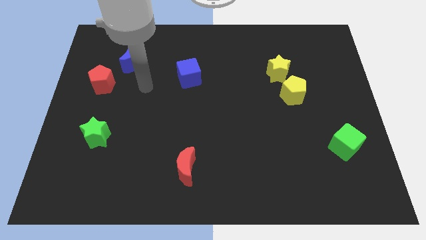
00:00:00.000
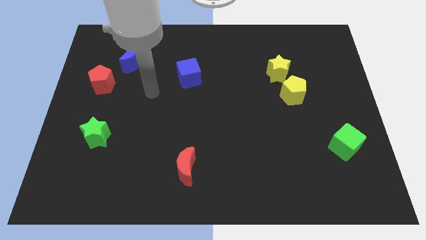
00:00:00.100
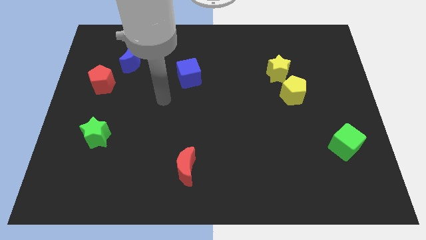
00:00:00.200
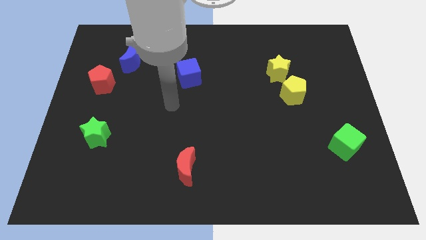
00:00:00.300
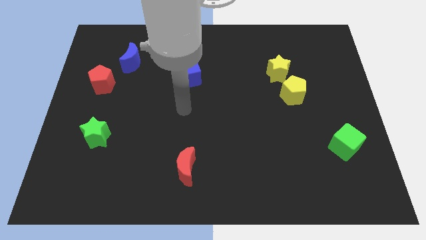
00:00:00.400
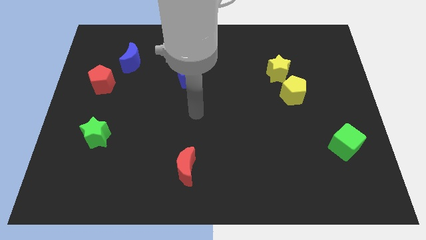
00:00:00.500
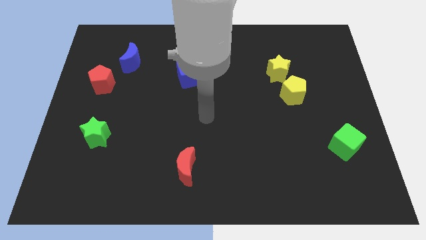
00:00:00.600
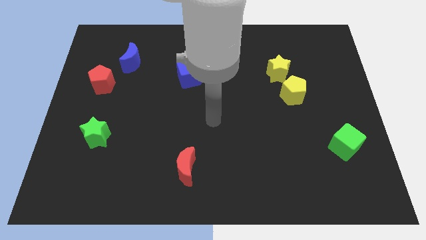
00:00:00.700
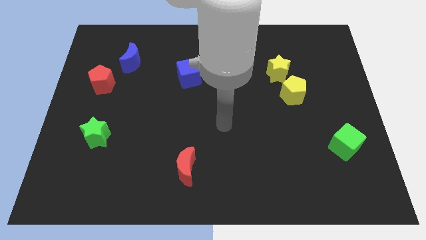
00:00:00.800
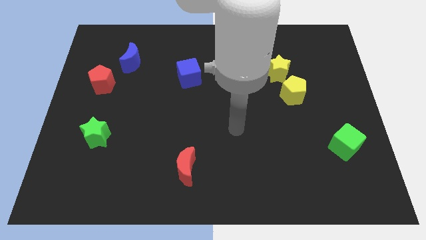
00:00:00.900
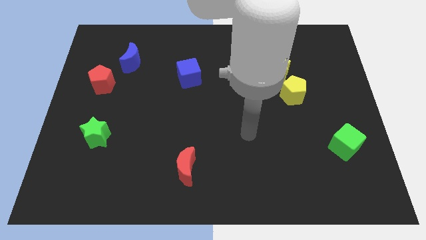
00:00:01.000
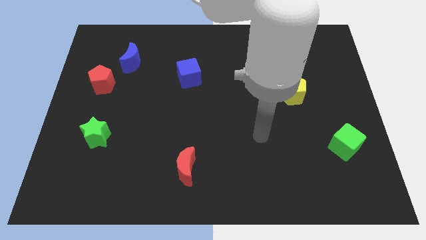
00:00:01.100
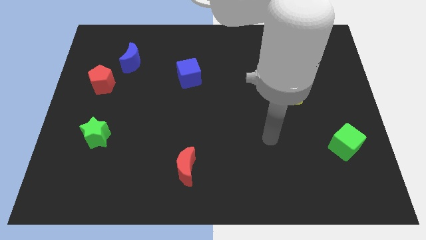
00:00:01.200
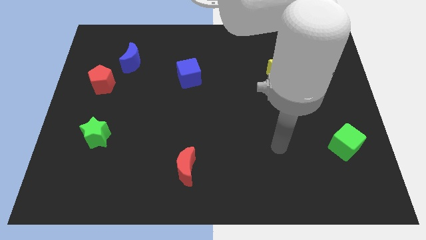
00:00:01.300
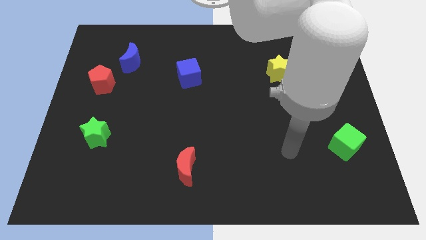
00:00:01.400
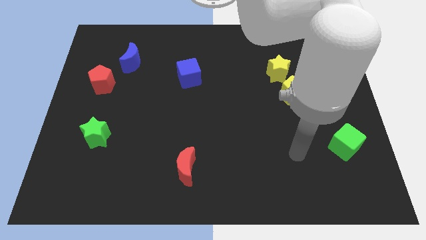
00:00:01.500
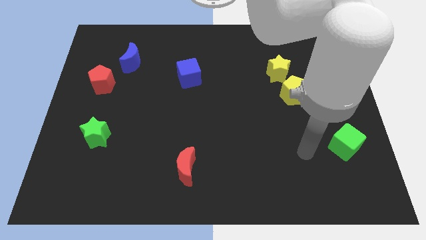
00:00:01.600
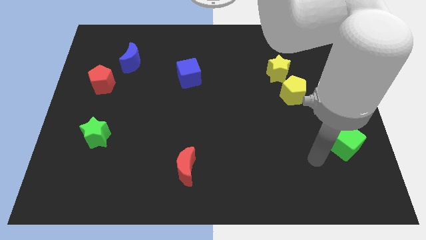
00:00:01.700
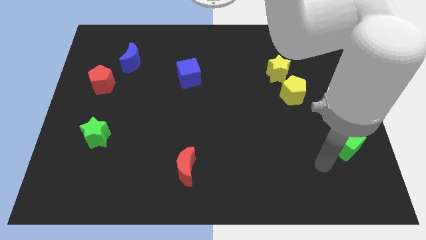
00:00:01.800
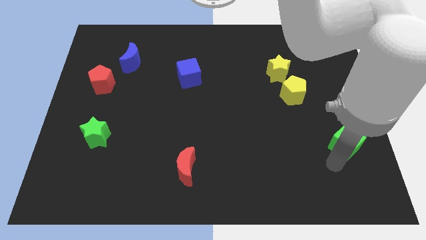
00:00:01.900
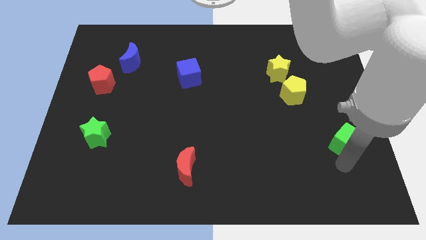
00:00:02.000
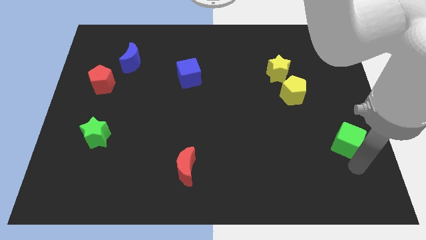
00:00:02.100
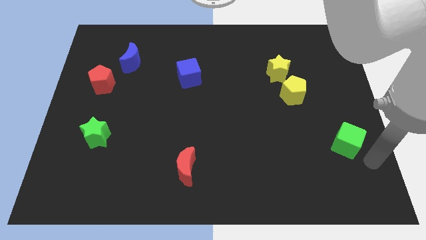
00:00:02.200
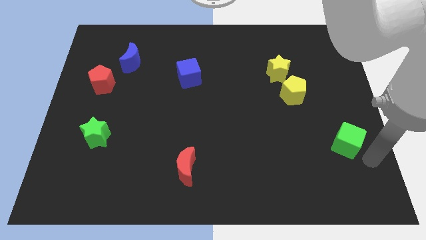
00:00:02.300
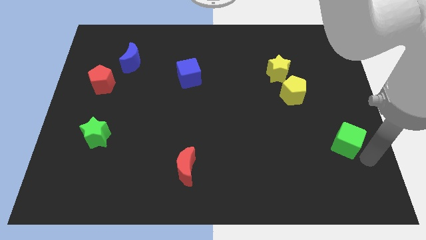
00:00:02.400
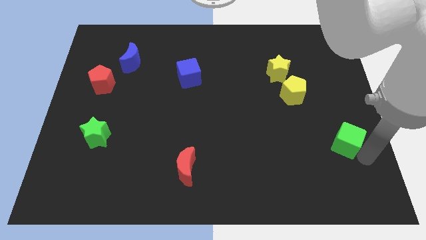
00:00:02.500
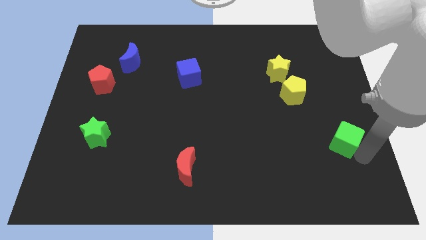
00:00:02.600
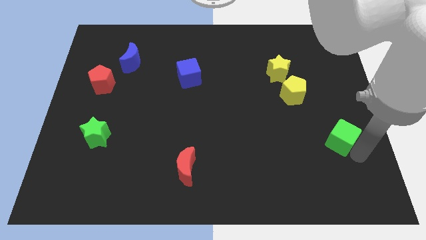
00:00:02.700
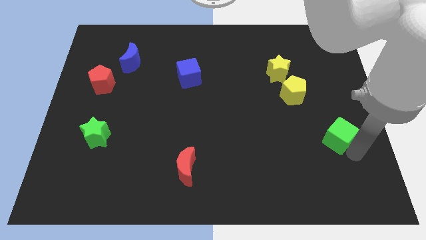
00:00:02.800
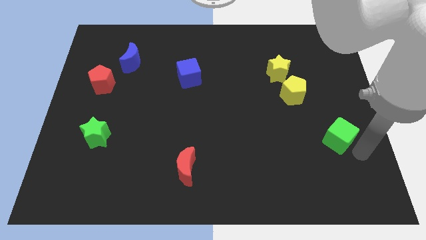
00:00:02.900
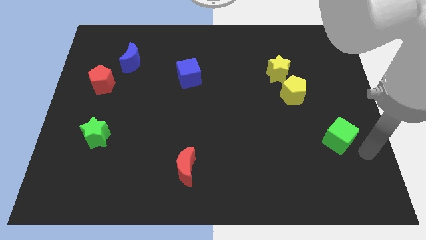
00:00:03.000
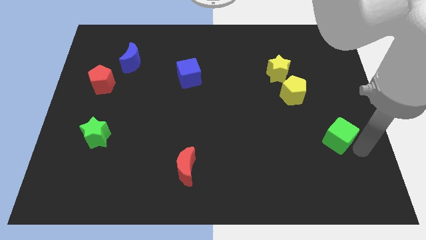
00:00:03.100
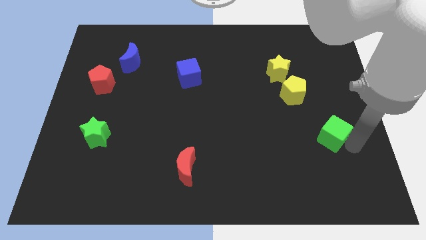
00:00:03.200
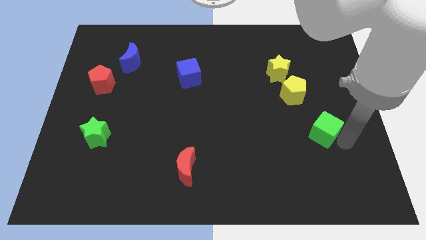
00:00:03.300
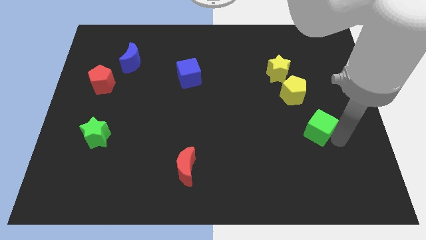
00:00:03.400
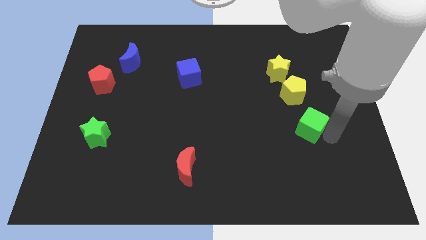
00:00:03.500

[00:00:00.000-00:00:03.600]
slide the green cube a little diagonally up and to the left

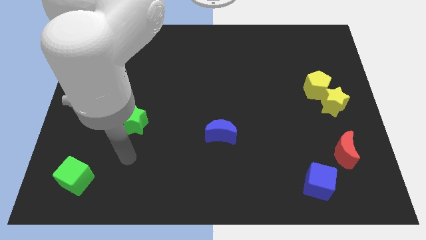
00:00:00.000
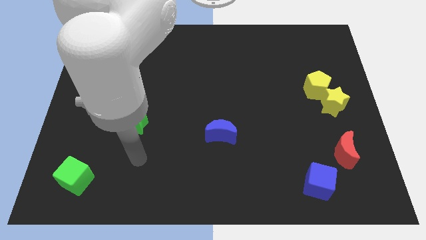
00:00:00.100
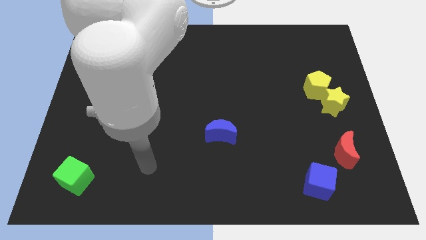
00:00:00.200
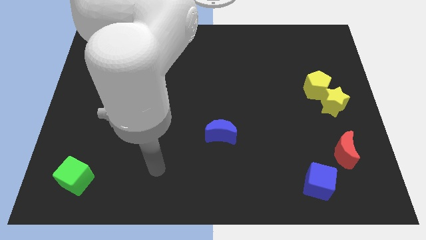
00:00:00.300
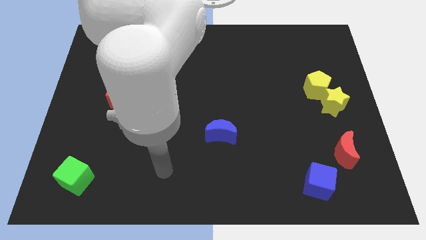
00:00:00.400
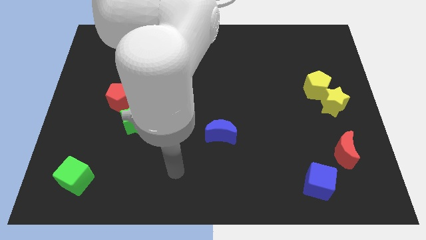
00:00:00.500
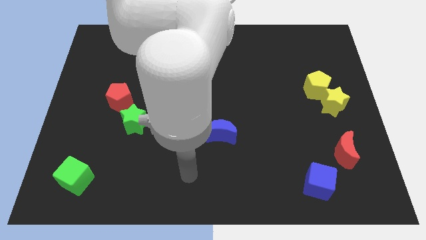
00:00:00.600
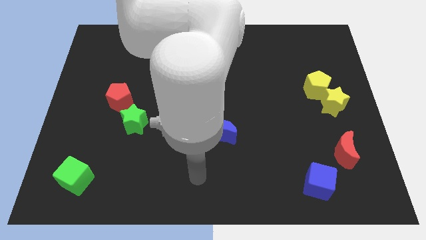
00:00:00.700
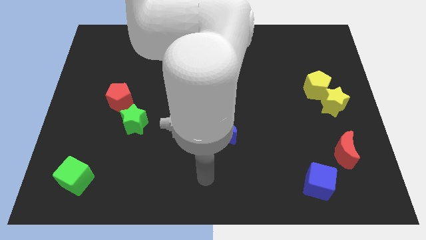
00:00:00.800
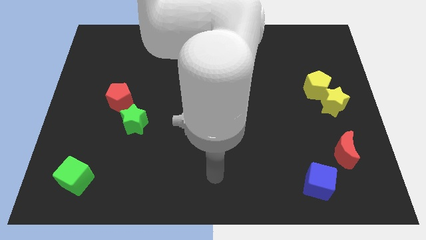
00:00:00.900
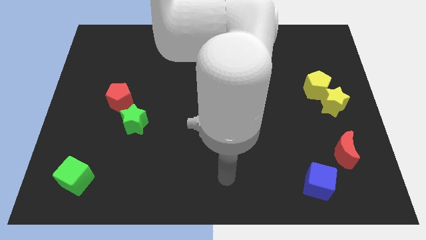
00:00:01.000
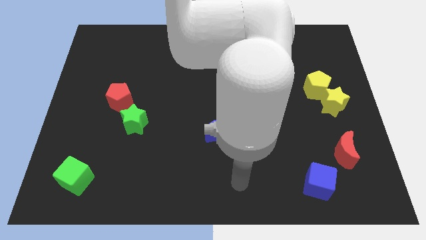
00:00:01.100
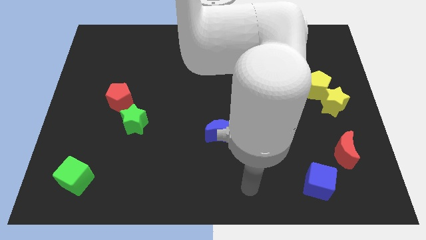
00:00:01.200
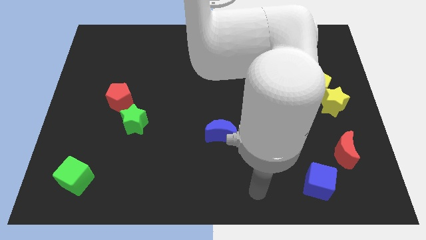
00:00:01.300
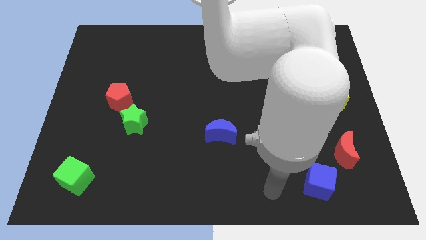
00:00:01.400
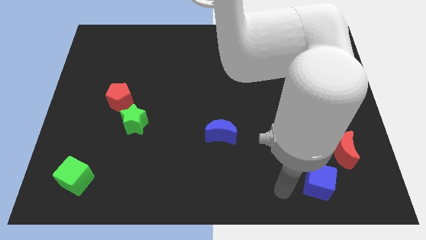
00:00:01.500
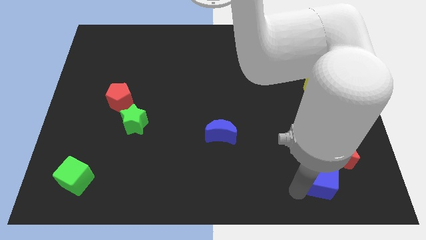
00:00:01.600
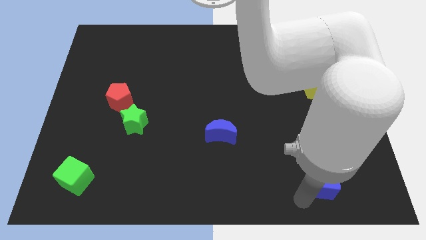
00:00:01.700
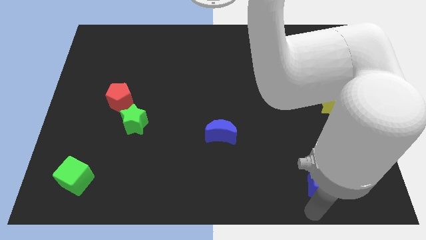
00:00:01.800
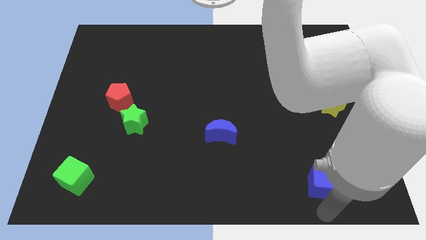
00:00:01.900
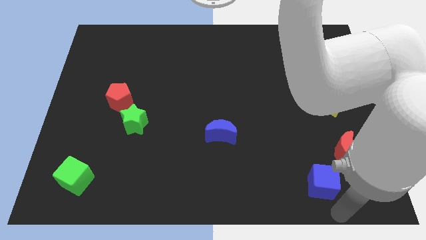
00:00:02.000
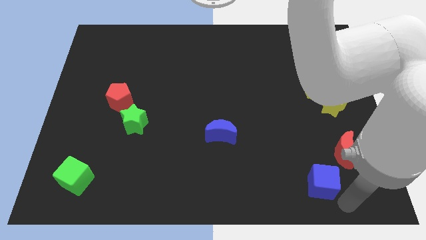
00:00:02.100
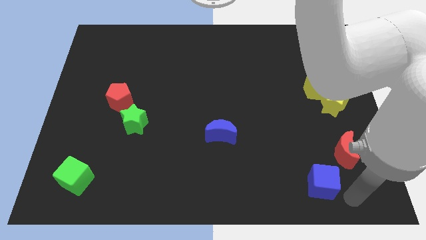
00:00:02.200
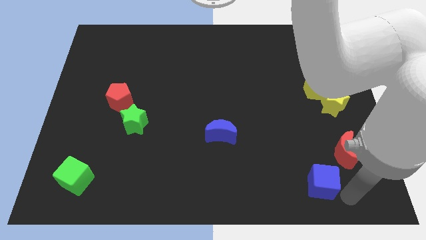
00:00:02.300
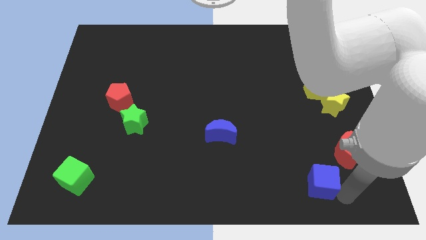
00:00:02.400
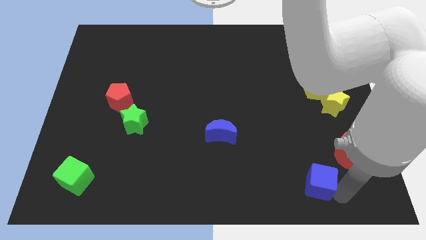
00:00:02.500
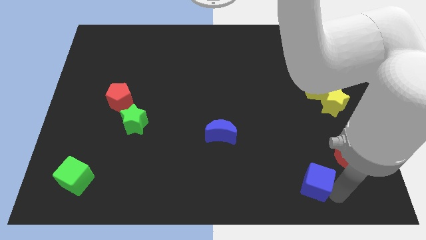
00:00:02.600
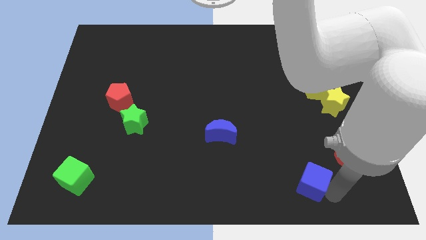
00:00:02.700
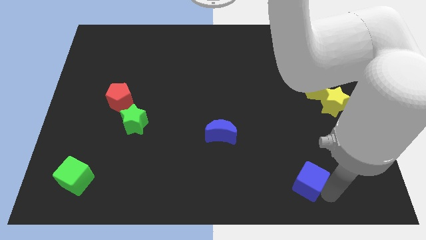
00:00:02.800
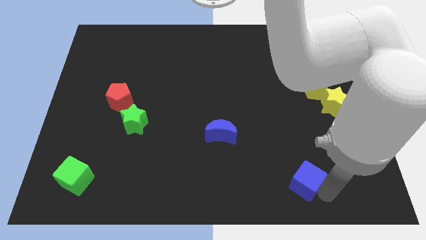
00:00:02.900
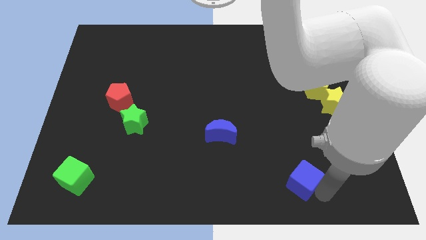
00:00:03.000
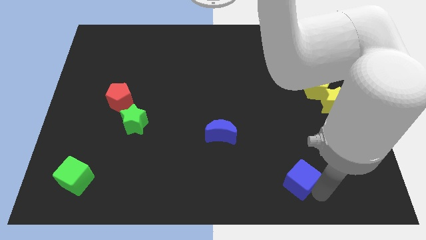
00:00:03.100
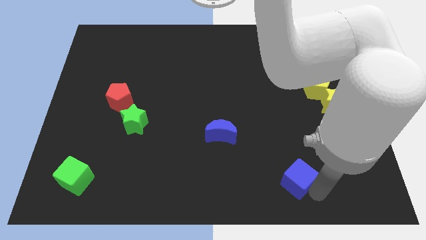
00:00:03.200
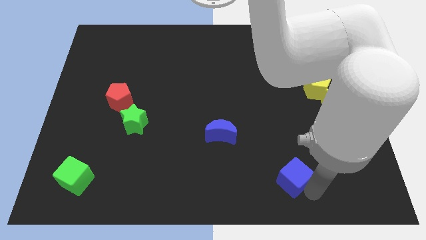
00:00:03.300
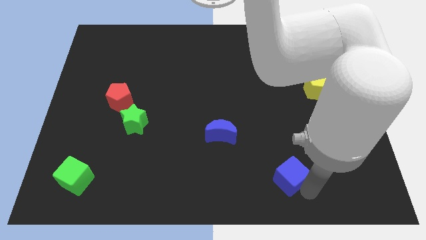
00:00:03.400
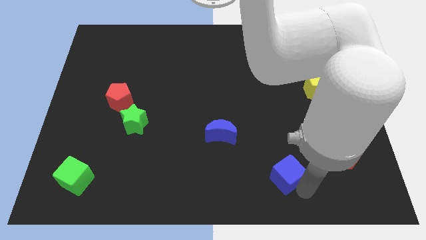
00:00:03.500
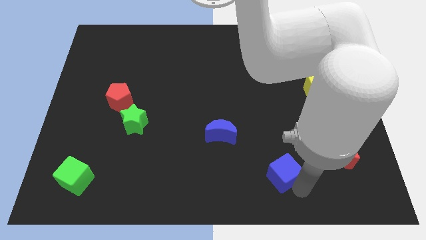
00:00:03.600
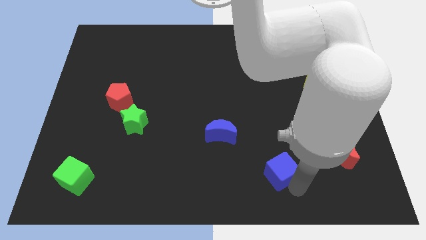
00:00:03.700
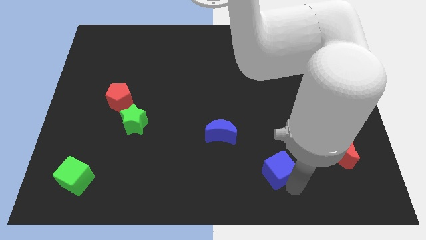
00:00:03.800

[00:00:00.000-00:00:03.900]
slide the blue cube upwards and then to the left a bit

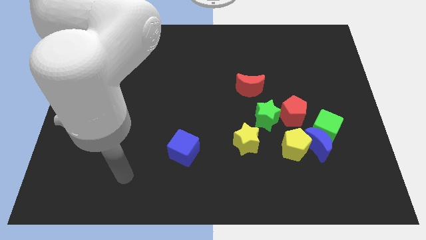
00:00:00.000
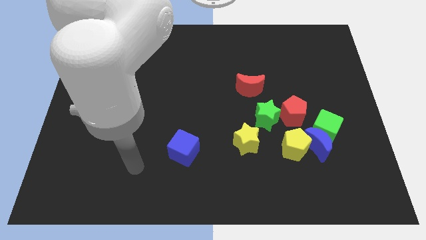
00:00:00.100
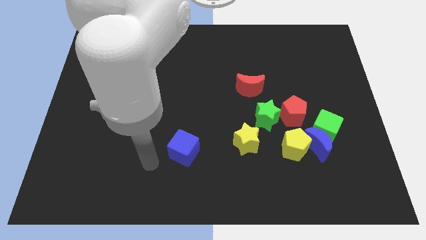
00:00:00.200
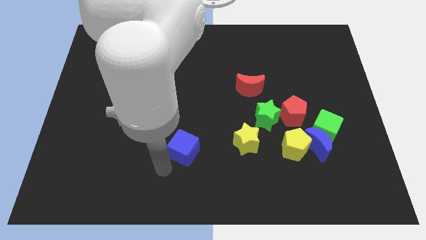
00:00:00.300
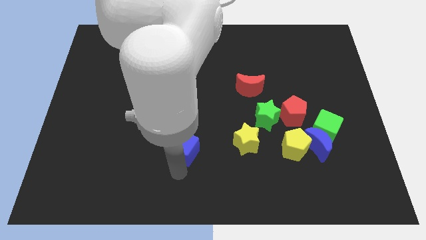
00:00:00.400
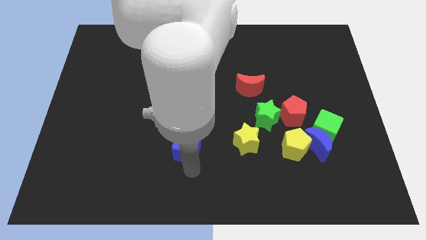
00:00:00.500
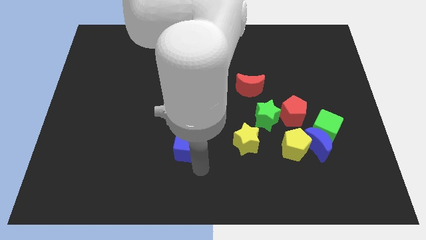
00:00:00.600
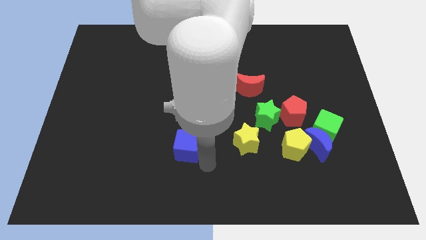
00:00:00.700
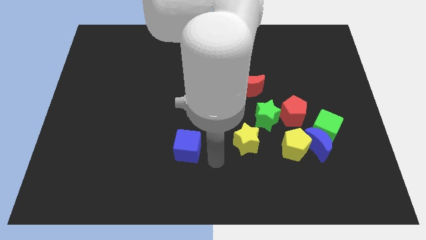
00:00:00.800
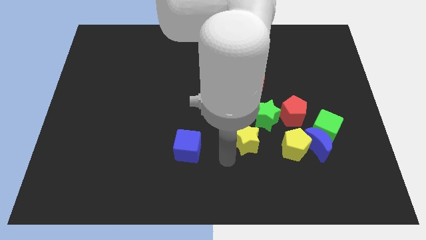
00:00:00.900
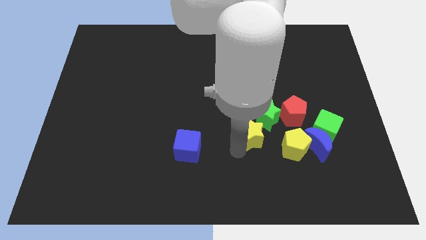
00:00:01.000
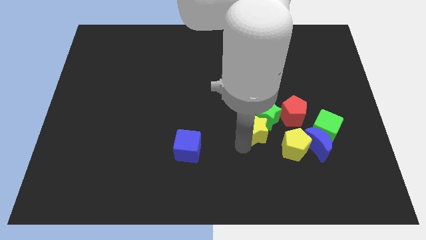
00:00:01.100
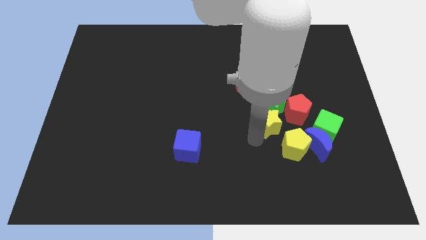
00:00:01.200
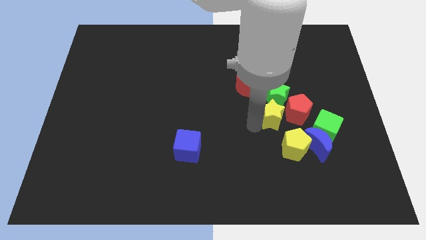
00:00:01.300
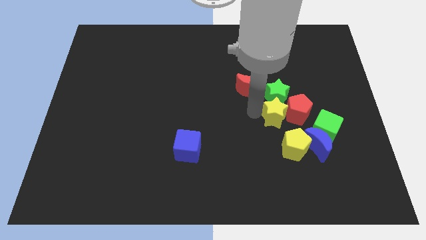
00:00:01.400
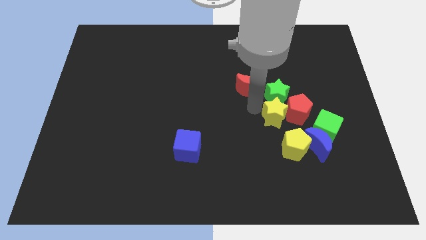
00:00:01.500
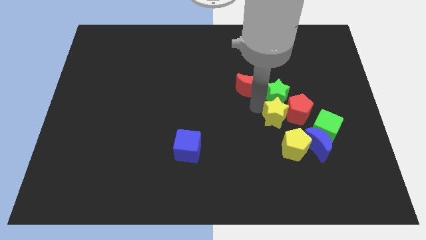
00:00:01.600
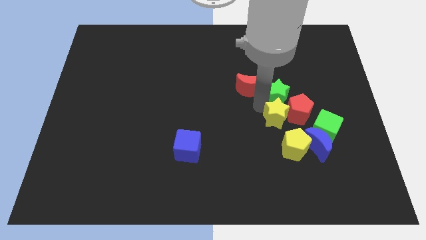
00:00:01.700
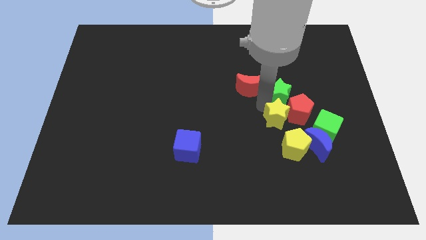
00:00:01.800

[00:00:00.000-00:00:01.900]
slide the green star slightly upwards and then right
